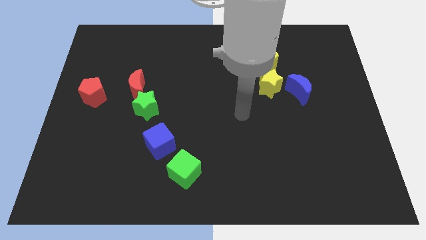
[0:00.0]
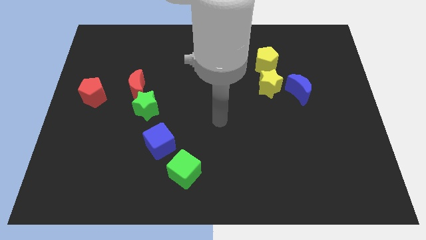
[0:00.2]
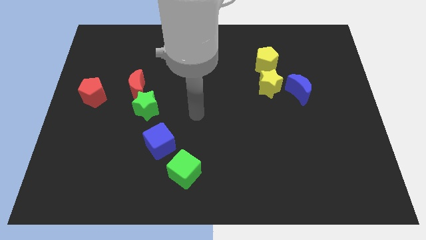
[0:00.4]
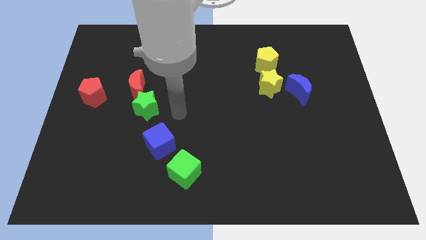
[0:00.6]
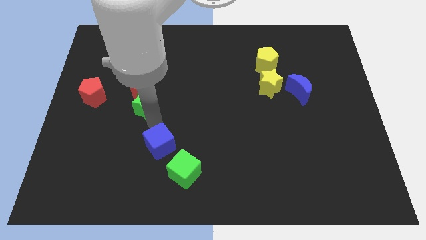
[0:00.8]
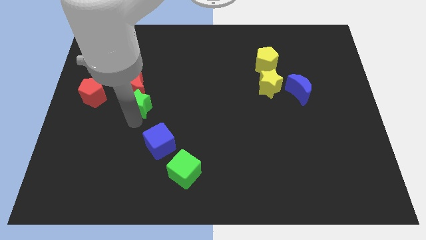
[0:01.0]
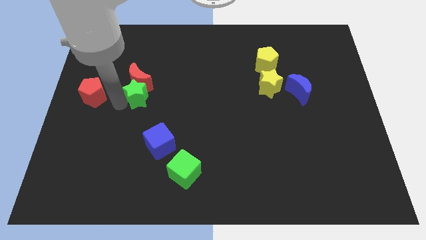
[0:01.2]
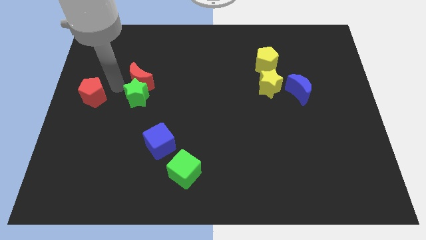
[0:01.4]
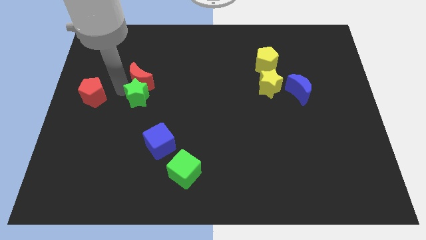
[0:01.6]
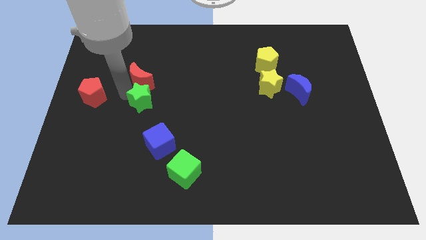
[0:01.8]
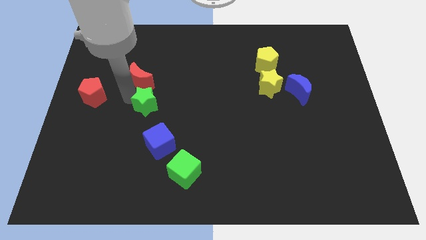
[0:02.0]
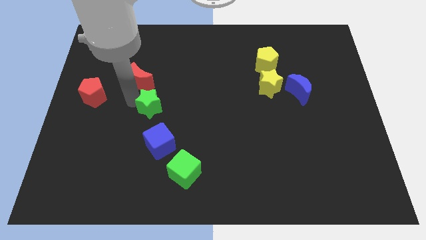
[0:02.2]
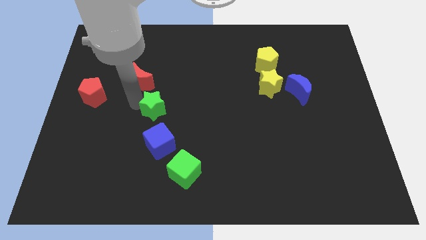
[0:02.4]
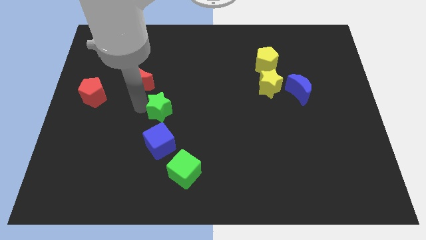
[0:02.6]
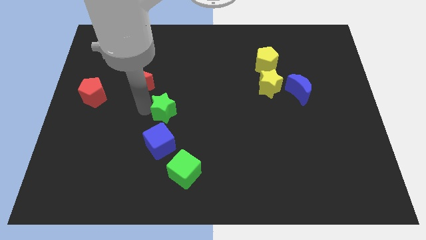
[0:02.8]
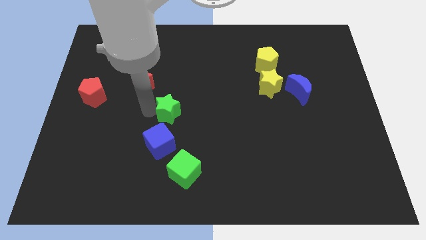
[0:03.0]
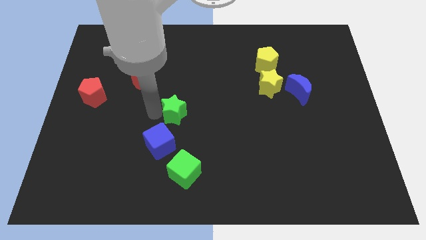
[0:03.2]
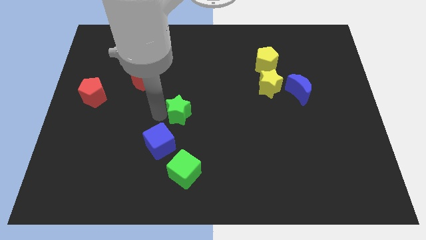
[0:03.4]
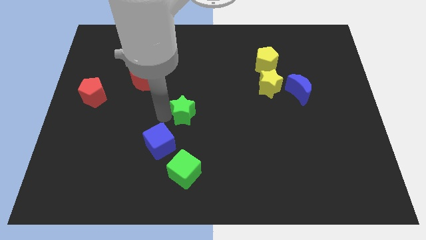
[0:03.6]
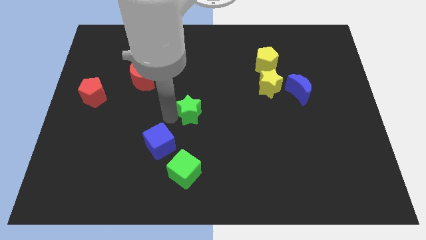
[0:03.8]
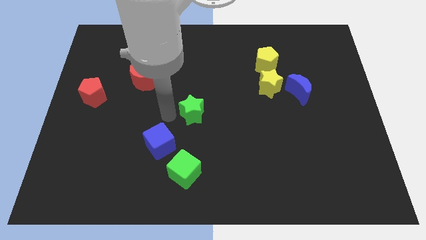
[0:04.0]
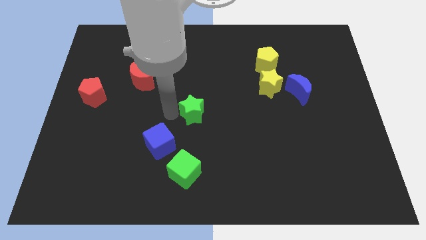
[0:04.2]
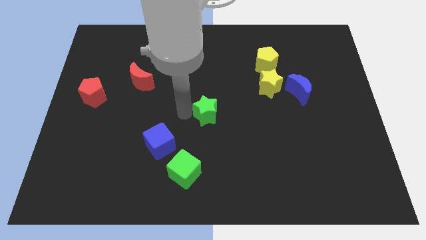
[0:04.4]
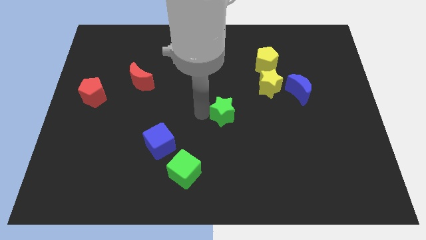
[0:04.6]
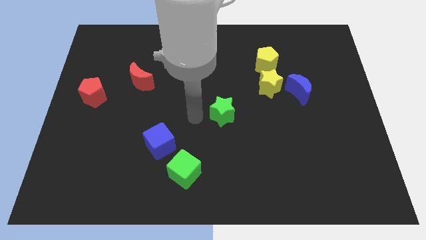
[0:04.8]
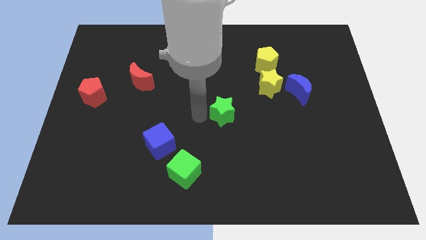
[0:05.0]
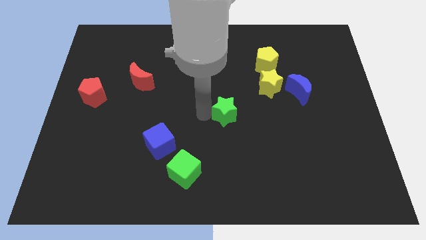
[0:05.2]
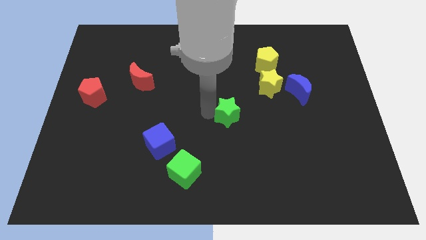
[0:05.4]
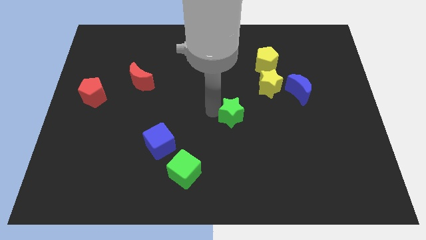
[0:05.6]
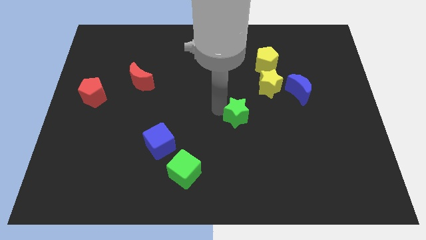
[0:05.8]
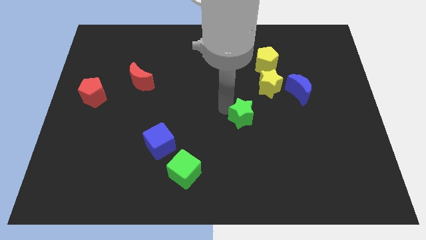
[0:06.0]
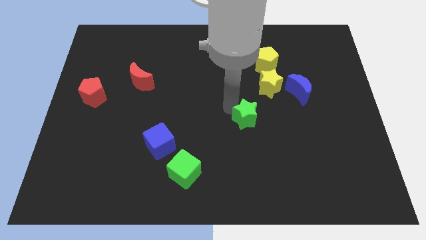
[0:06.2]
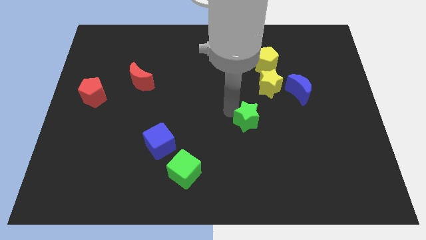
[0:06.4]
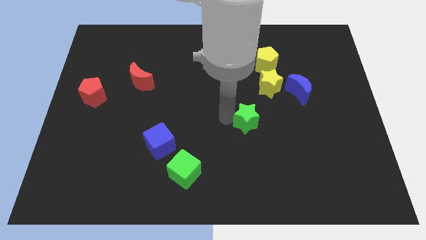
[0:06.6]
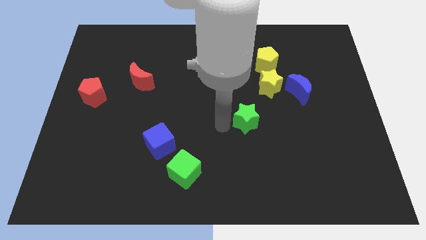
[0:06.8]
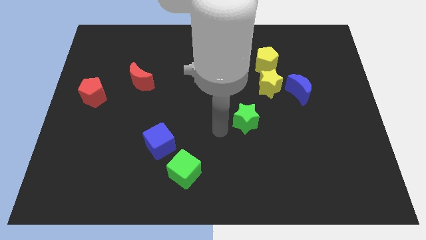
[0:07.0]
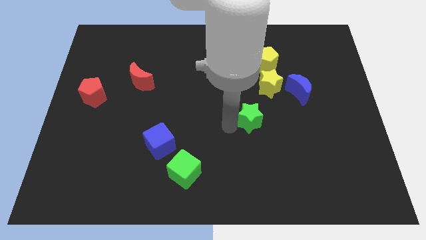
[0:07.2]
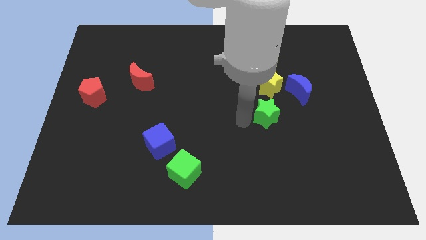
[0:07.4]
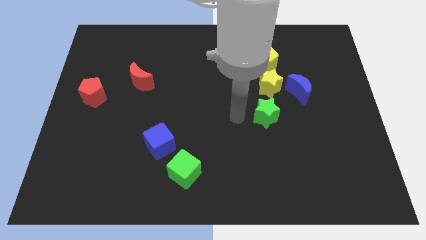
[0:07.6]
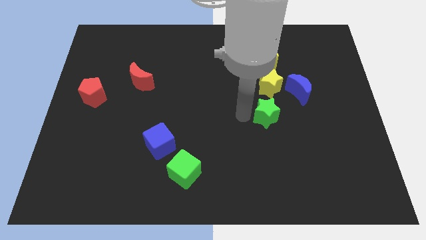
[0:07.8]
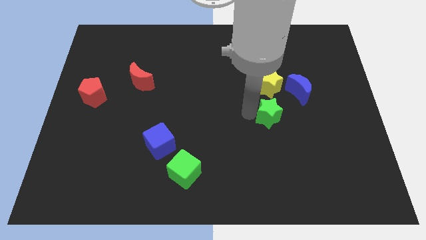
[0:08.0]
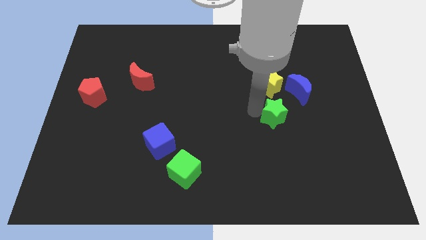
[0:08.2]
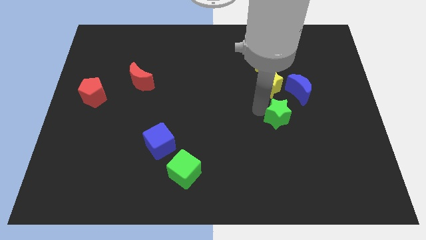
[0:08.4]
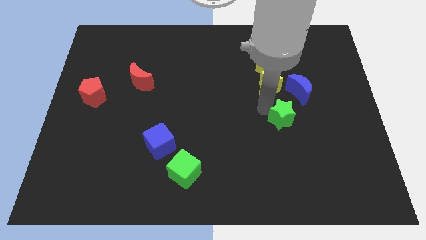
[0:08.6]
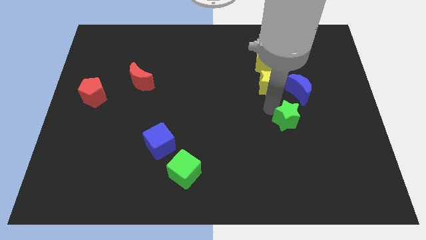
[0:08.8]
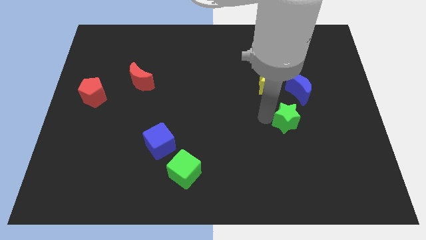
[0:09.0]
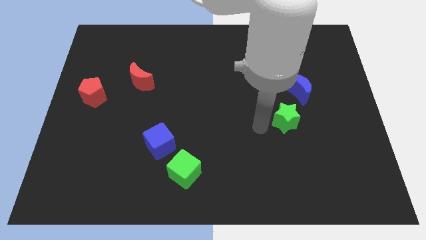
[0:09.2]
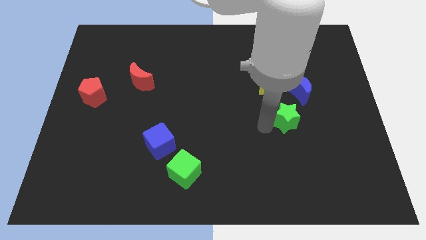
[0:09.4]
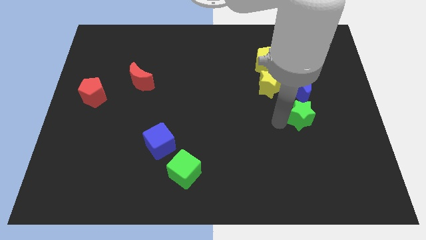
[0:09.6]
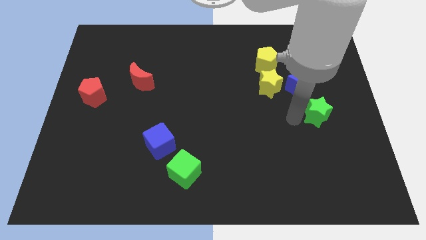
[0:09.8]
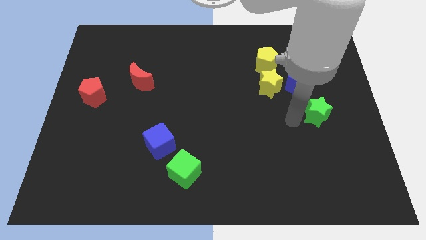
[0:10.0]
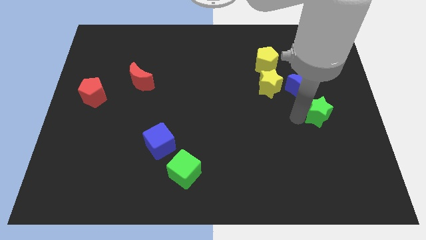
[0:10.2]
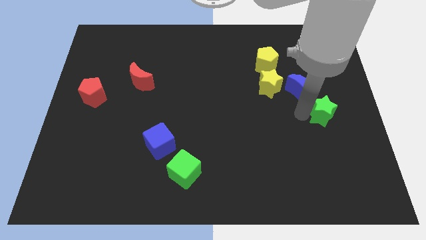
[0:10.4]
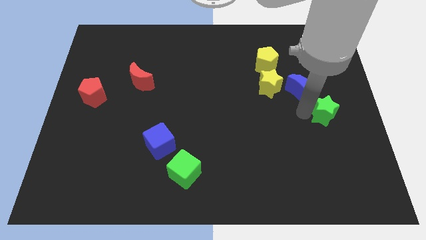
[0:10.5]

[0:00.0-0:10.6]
move the green star to the center right
